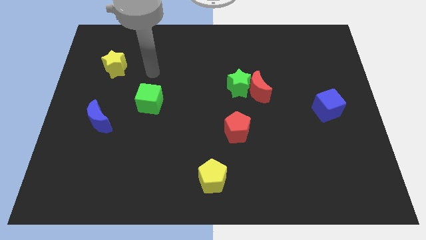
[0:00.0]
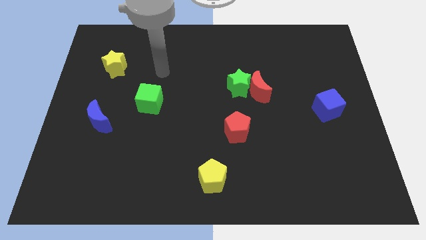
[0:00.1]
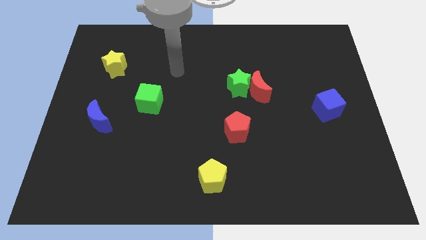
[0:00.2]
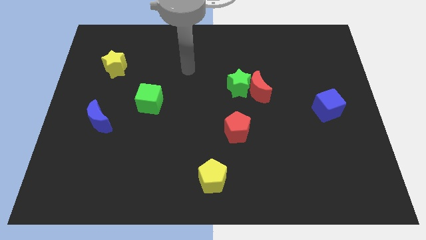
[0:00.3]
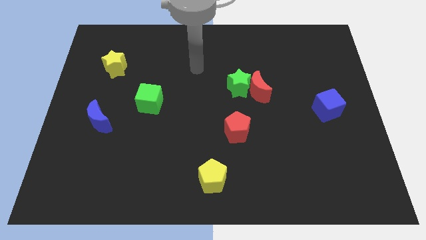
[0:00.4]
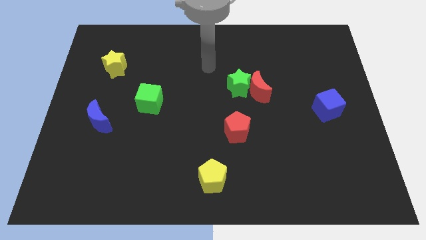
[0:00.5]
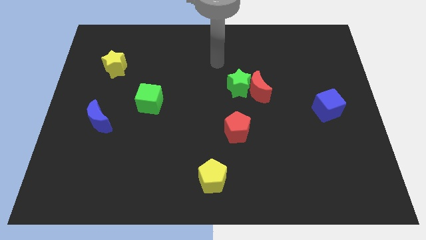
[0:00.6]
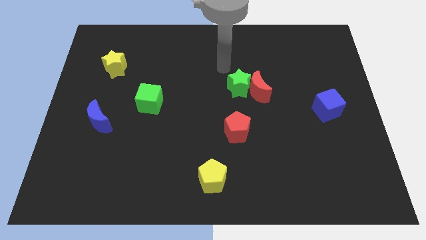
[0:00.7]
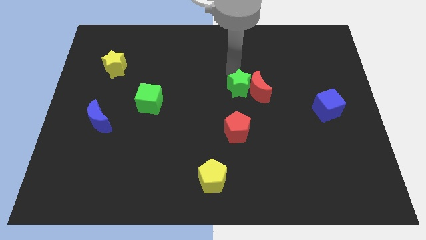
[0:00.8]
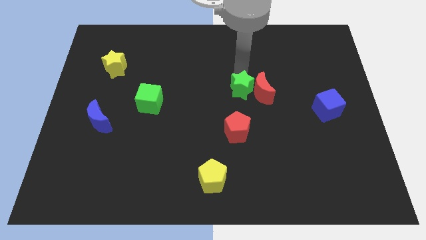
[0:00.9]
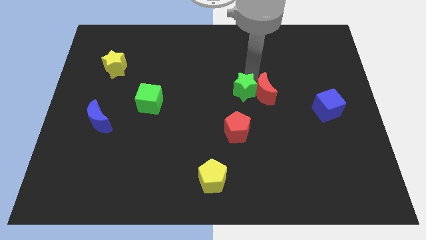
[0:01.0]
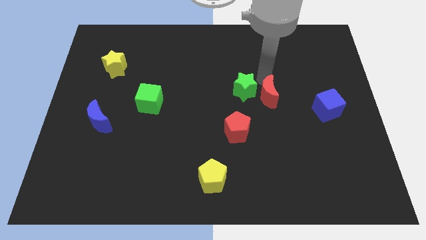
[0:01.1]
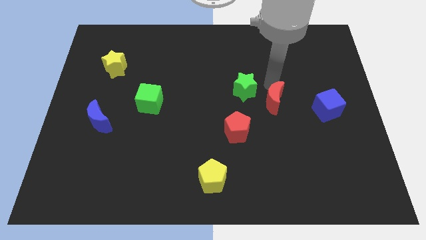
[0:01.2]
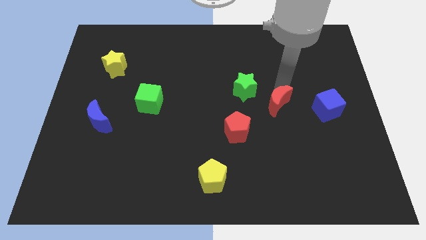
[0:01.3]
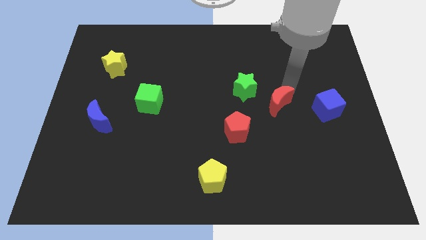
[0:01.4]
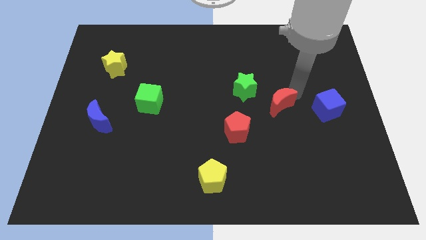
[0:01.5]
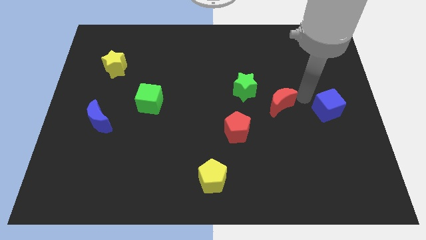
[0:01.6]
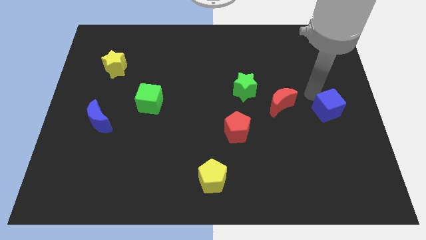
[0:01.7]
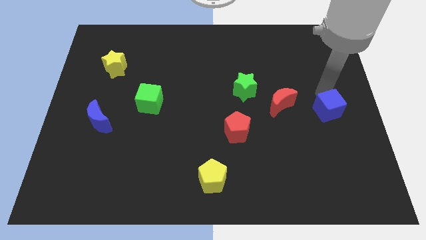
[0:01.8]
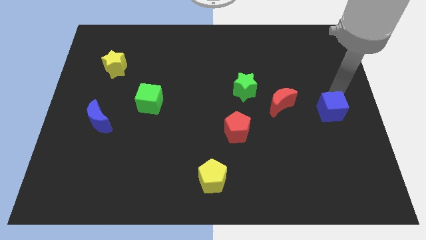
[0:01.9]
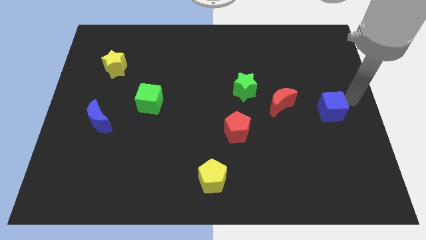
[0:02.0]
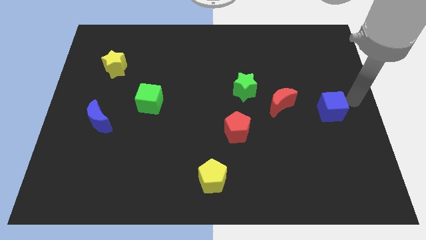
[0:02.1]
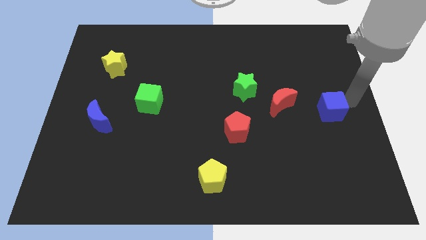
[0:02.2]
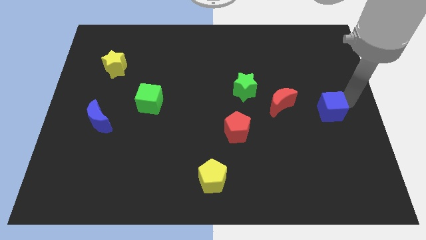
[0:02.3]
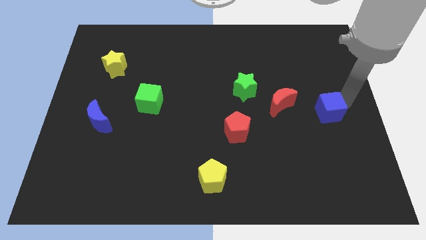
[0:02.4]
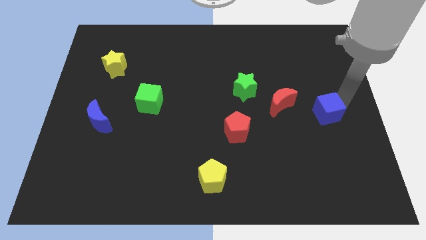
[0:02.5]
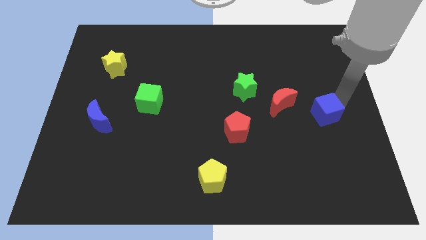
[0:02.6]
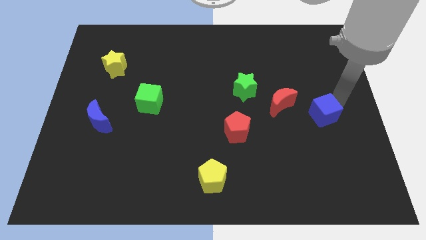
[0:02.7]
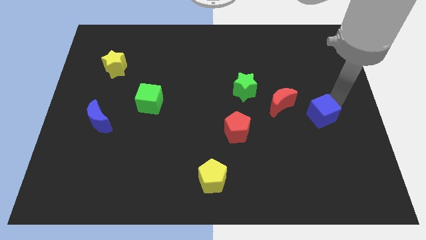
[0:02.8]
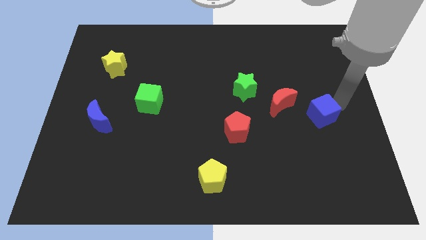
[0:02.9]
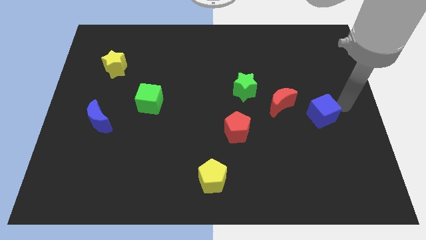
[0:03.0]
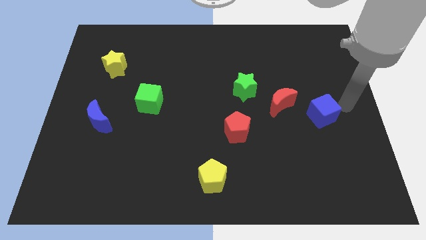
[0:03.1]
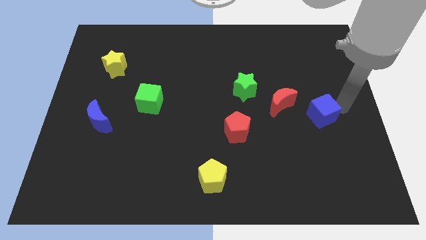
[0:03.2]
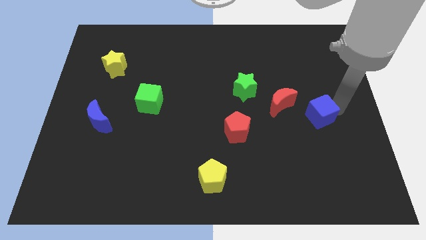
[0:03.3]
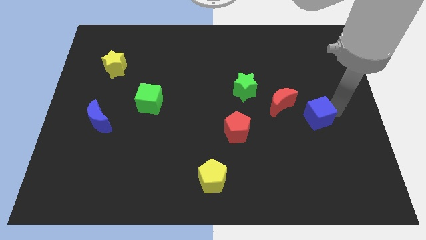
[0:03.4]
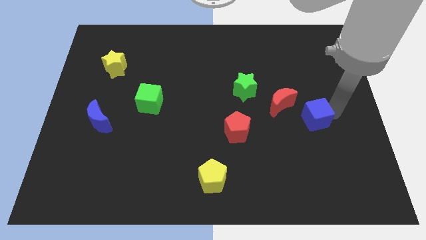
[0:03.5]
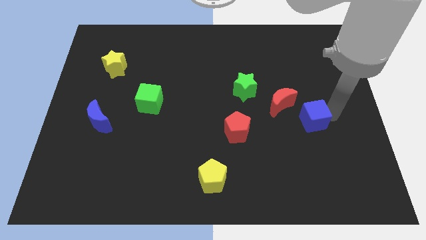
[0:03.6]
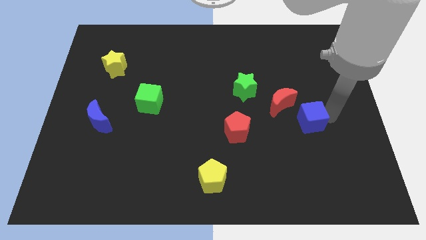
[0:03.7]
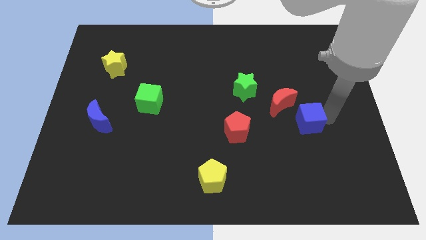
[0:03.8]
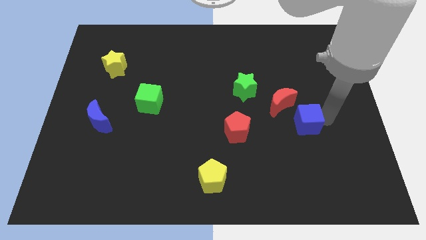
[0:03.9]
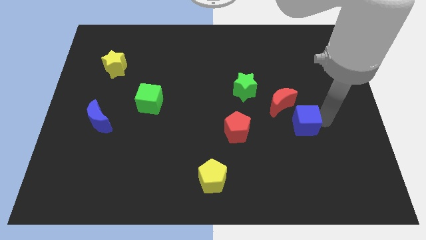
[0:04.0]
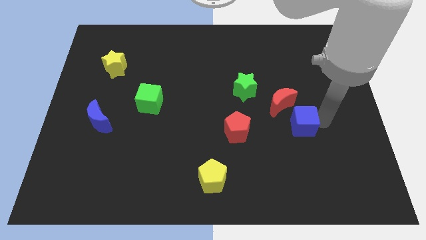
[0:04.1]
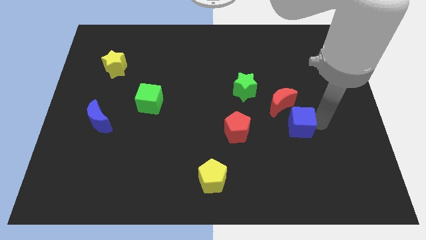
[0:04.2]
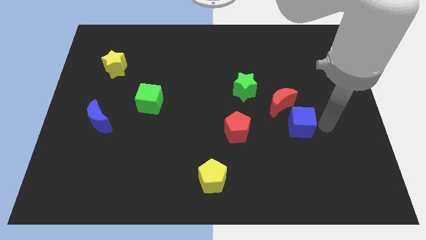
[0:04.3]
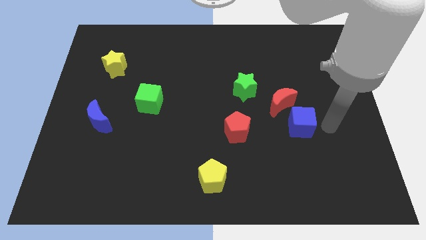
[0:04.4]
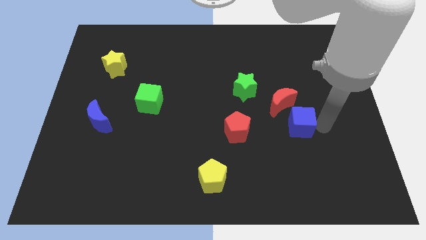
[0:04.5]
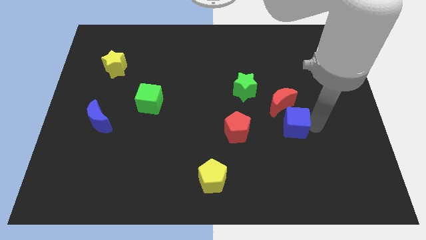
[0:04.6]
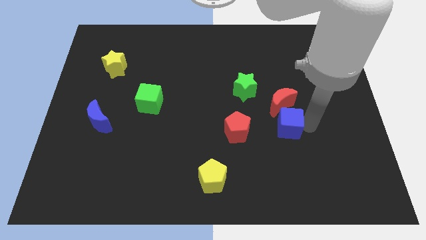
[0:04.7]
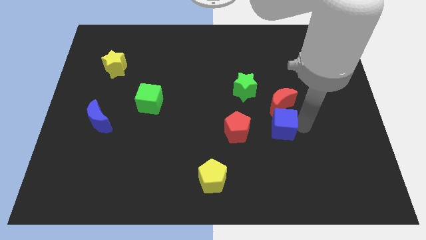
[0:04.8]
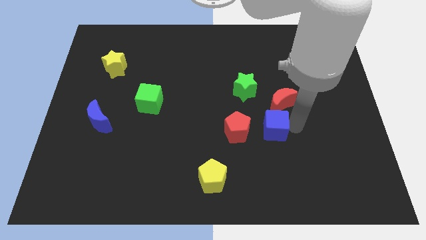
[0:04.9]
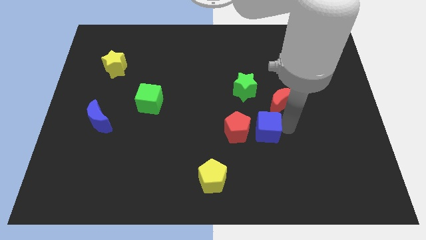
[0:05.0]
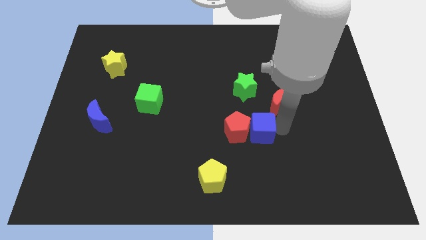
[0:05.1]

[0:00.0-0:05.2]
move the blue cube towards the red pentagon

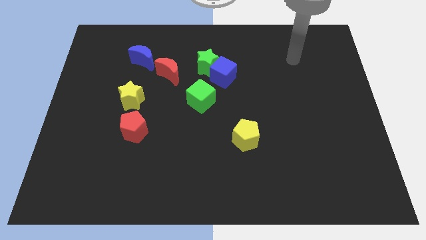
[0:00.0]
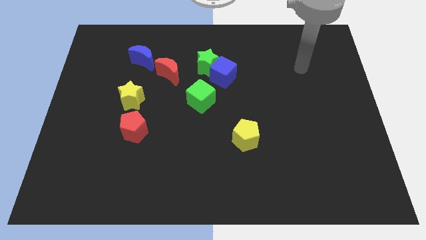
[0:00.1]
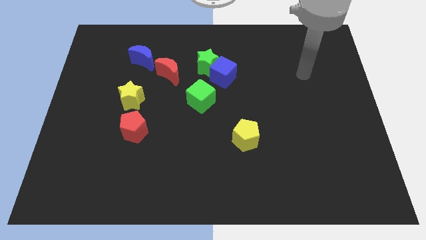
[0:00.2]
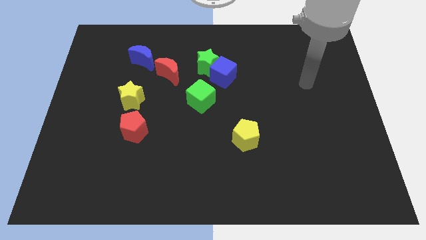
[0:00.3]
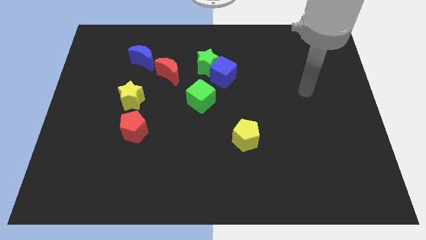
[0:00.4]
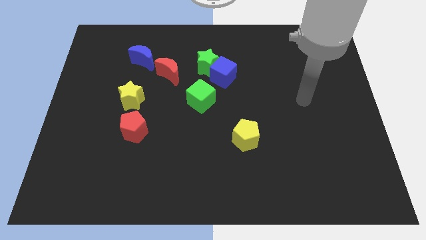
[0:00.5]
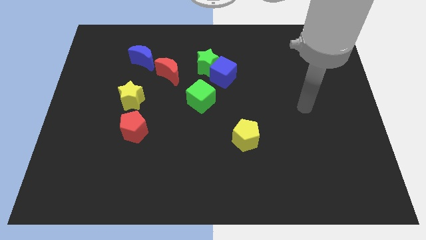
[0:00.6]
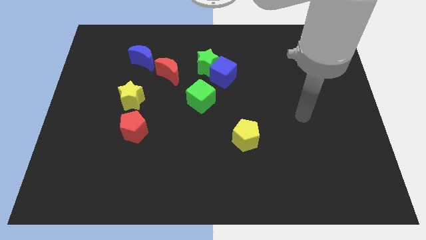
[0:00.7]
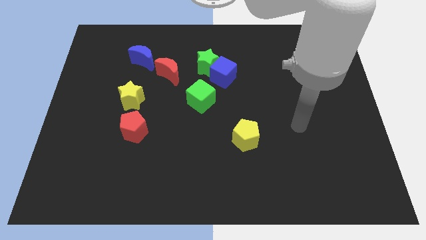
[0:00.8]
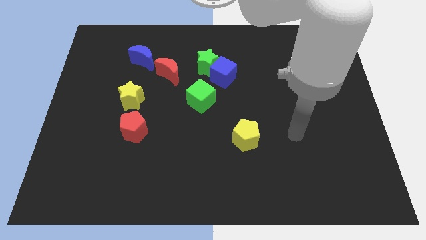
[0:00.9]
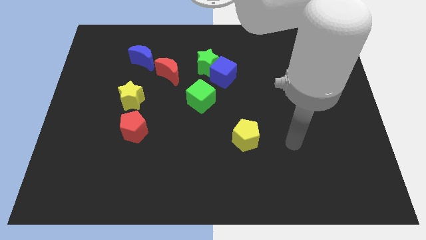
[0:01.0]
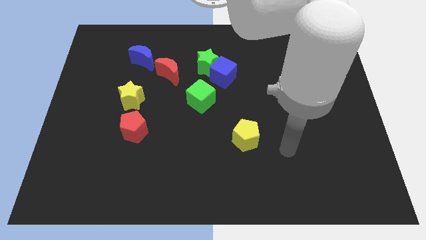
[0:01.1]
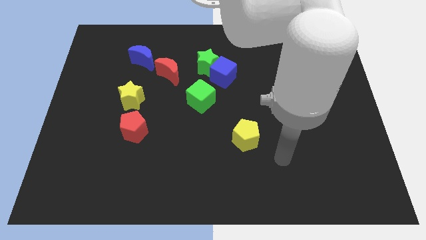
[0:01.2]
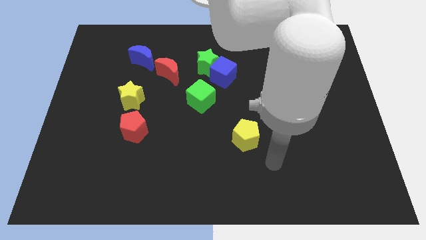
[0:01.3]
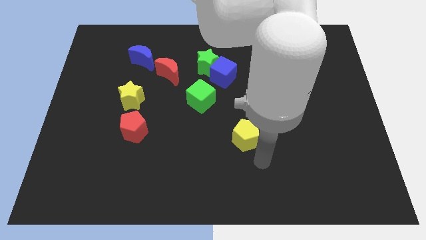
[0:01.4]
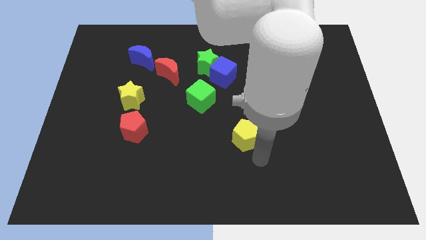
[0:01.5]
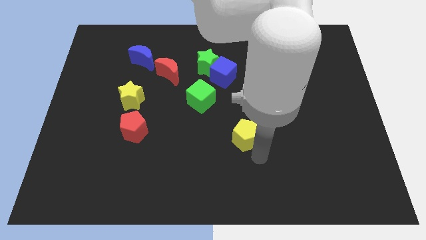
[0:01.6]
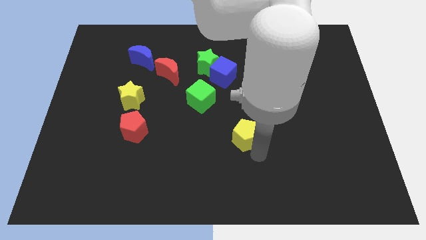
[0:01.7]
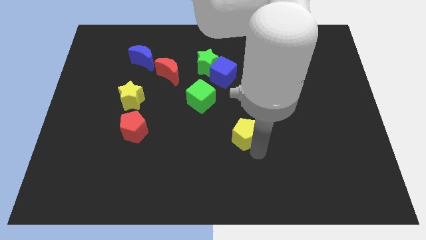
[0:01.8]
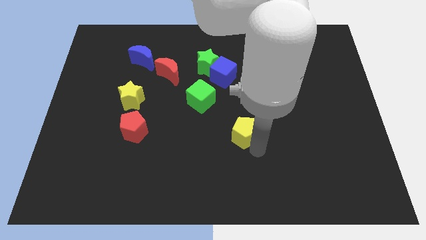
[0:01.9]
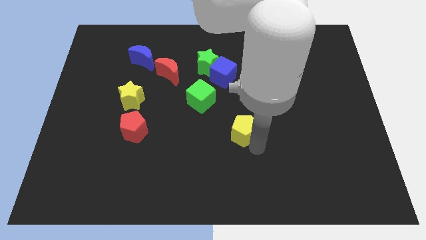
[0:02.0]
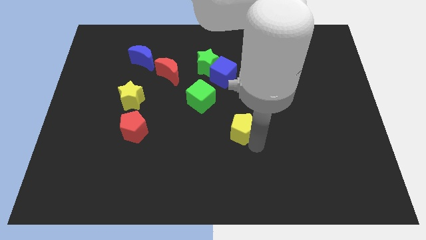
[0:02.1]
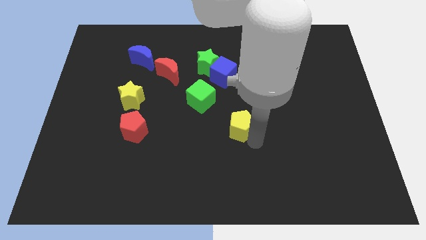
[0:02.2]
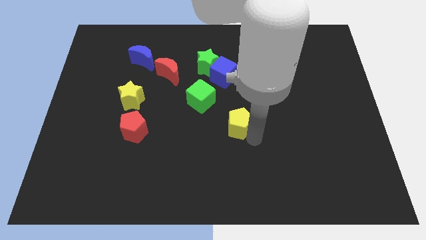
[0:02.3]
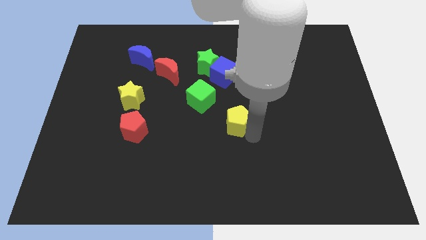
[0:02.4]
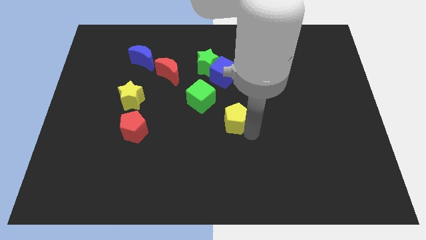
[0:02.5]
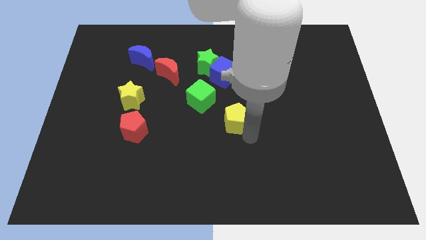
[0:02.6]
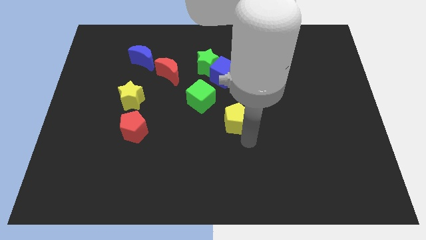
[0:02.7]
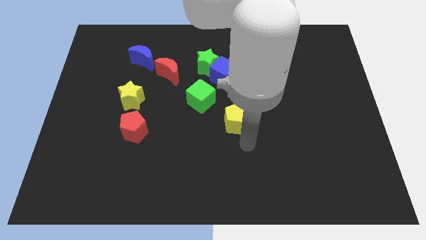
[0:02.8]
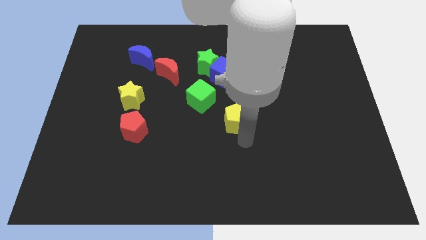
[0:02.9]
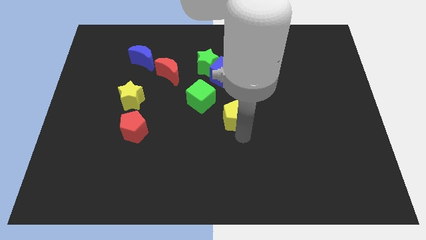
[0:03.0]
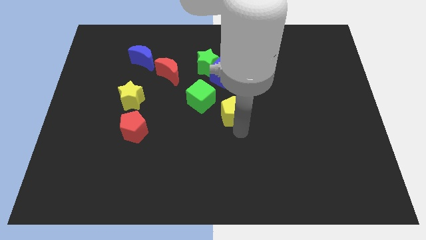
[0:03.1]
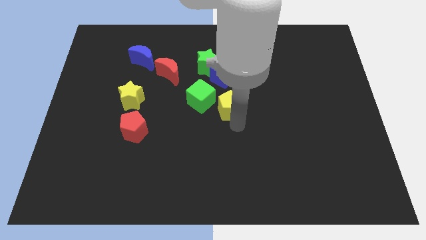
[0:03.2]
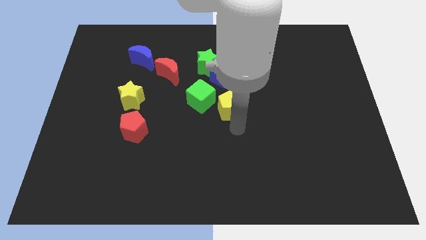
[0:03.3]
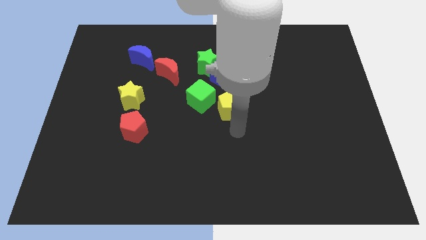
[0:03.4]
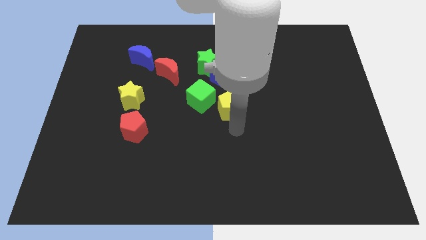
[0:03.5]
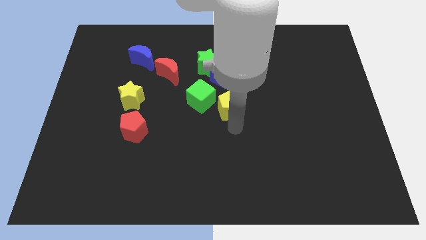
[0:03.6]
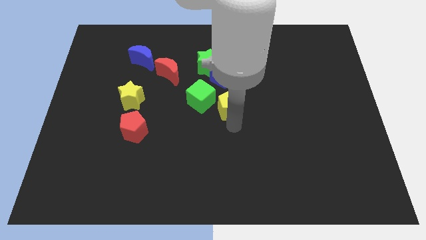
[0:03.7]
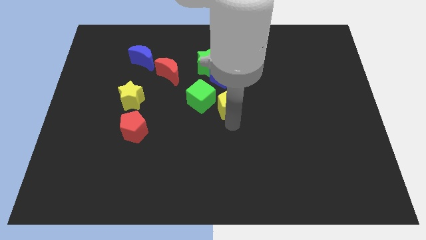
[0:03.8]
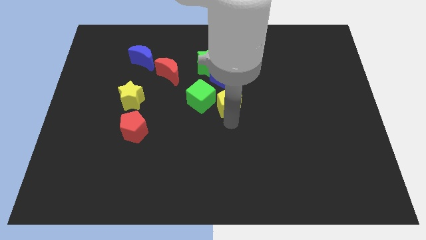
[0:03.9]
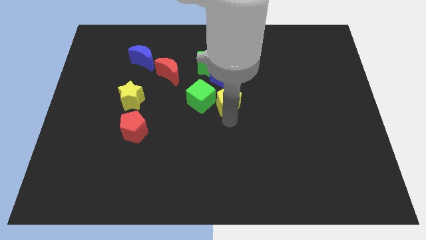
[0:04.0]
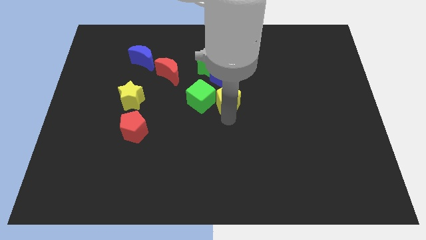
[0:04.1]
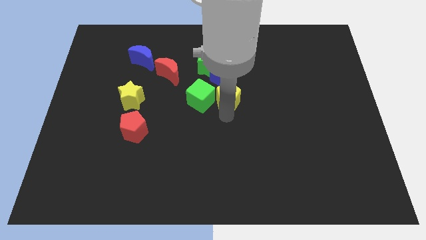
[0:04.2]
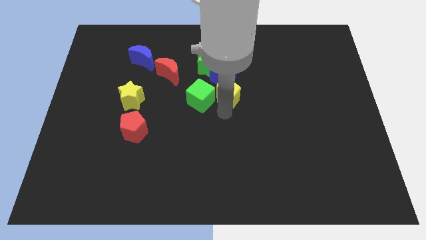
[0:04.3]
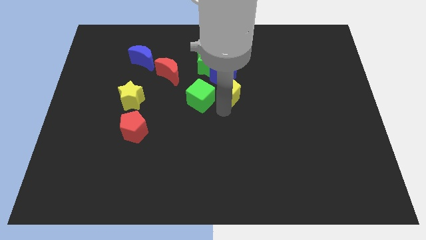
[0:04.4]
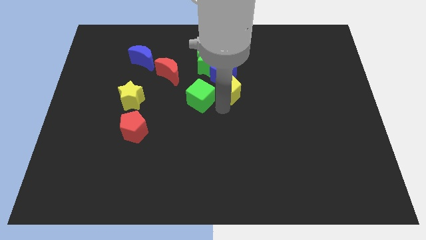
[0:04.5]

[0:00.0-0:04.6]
move the yellow pentagon close to the blue cube
